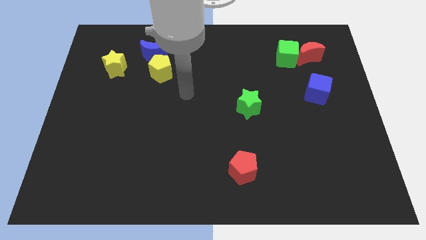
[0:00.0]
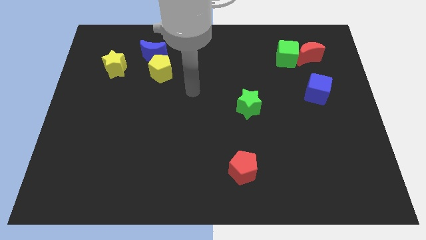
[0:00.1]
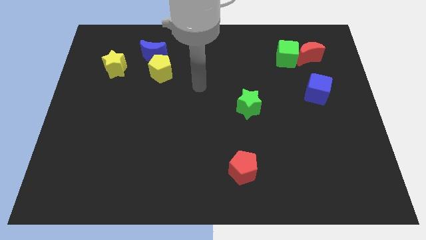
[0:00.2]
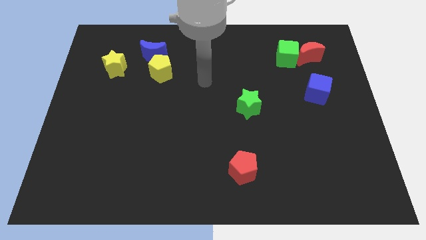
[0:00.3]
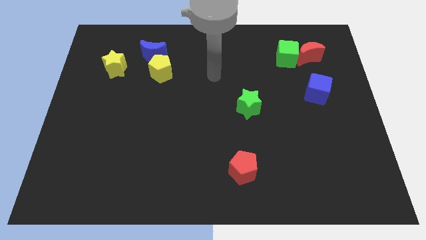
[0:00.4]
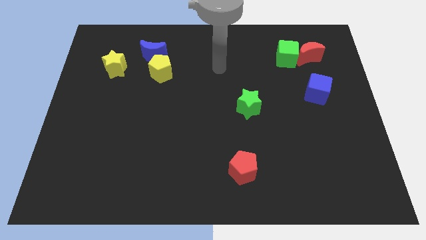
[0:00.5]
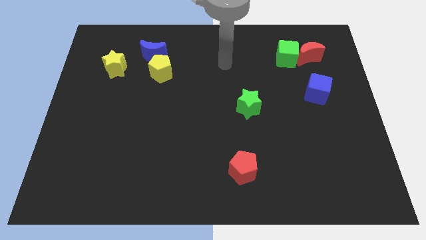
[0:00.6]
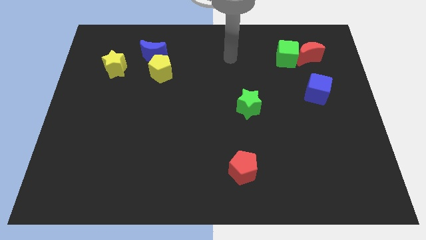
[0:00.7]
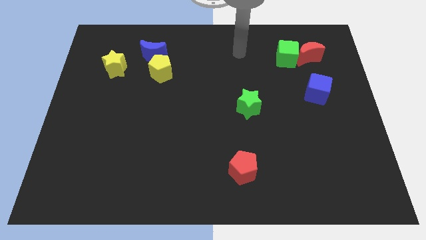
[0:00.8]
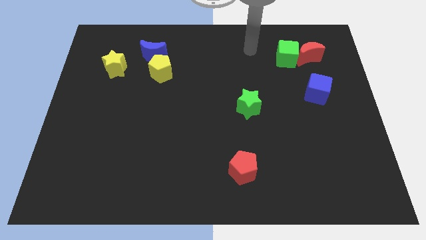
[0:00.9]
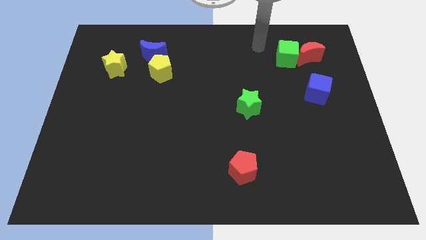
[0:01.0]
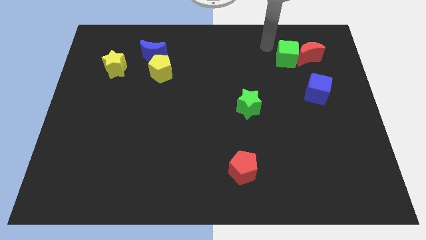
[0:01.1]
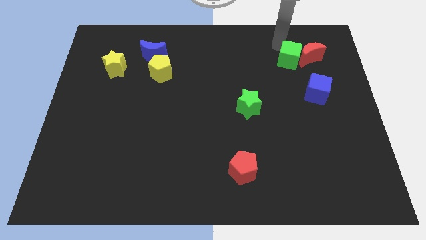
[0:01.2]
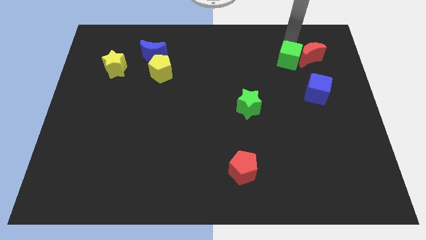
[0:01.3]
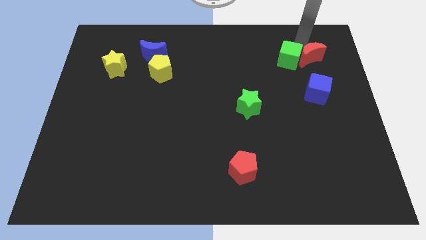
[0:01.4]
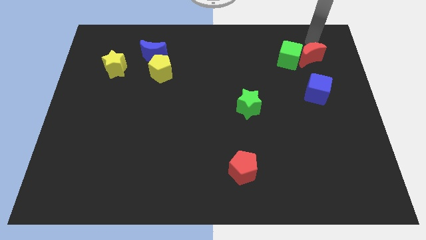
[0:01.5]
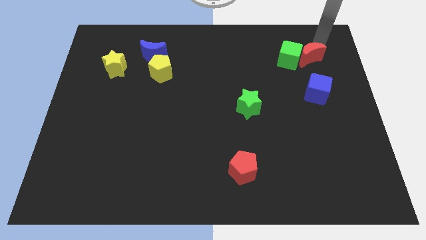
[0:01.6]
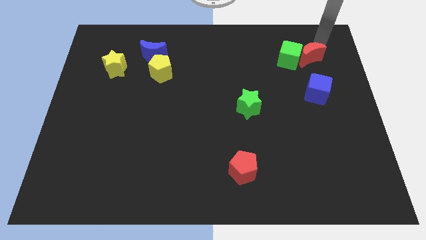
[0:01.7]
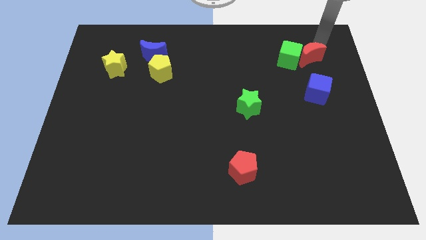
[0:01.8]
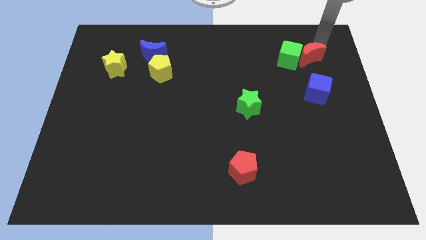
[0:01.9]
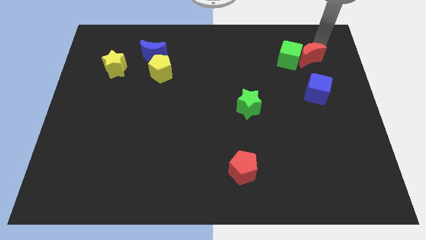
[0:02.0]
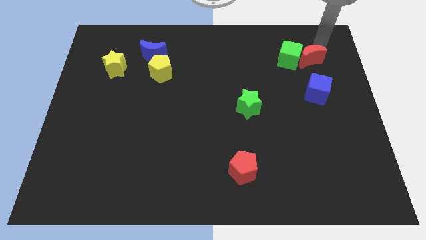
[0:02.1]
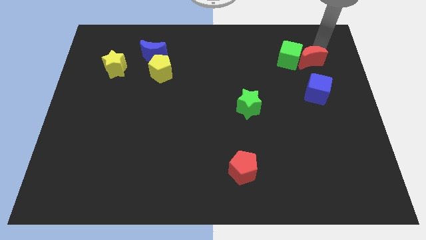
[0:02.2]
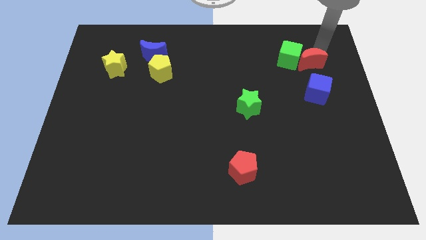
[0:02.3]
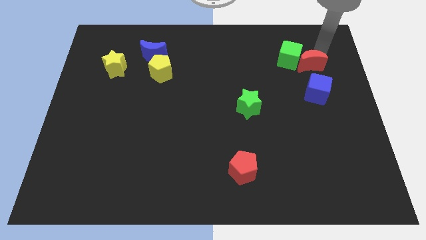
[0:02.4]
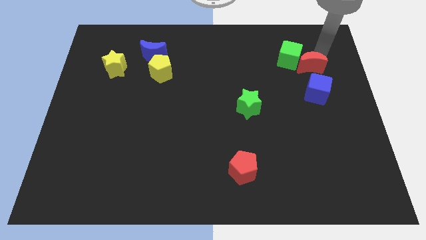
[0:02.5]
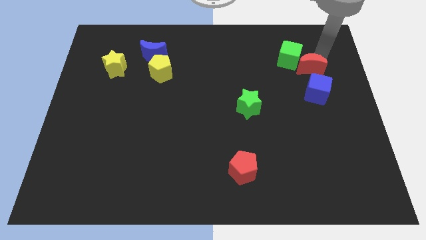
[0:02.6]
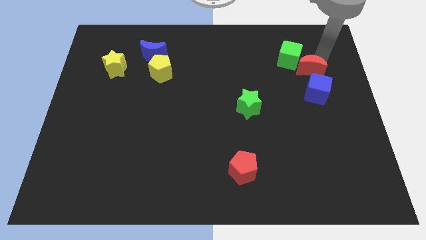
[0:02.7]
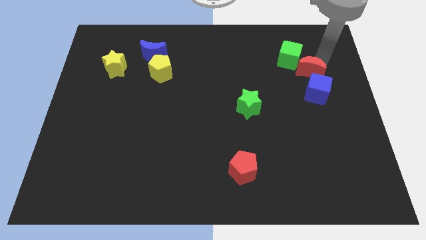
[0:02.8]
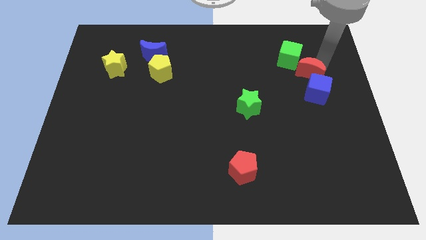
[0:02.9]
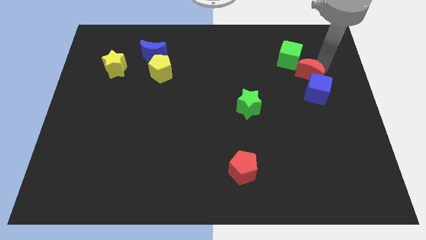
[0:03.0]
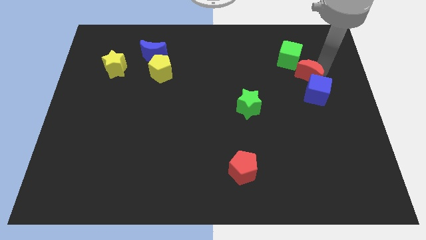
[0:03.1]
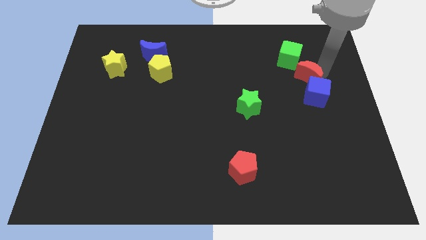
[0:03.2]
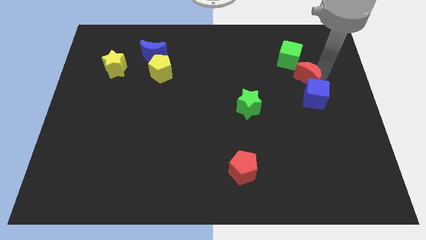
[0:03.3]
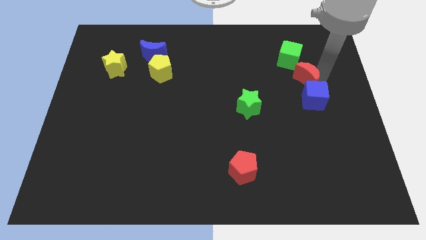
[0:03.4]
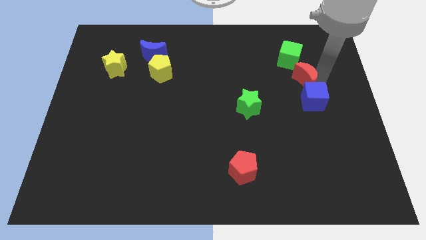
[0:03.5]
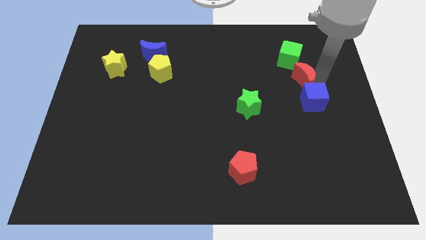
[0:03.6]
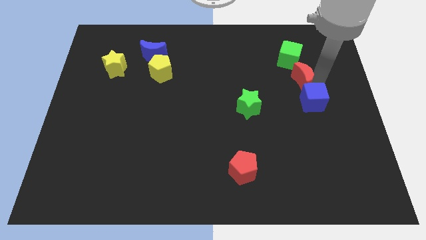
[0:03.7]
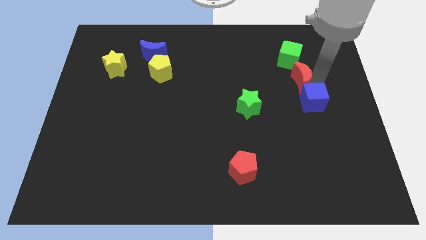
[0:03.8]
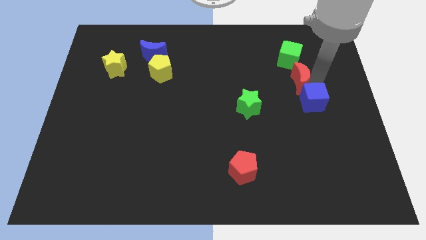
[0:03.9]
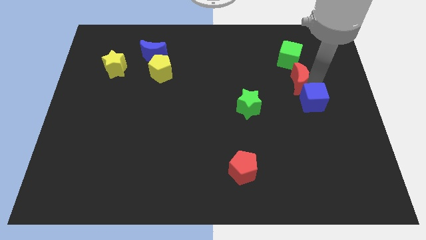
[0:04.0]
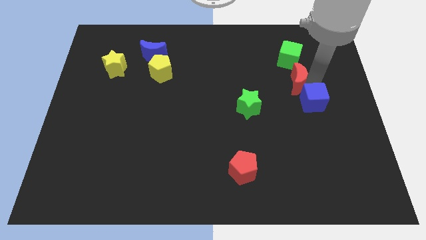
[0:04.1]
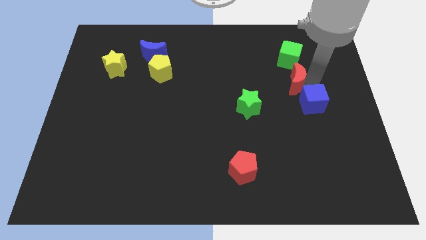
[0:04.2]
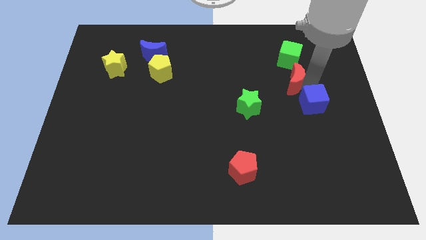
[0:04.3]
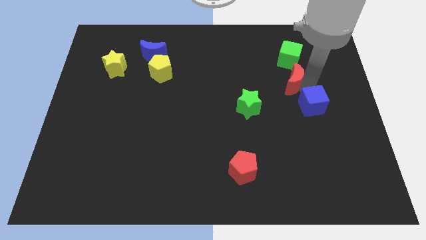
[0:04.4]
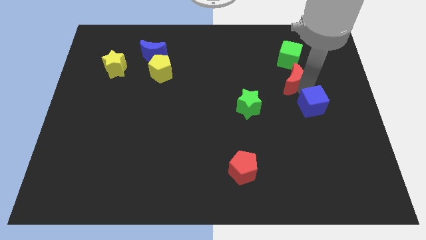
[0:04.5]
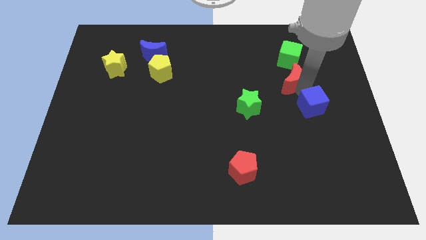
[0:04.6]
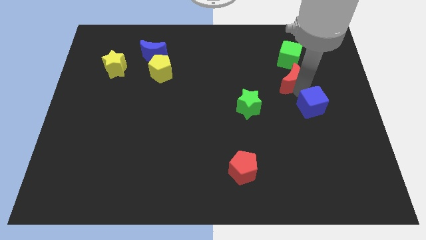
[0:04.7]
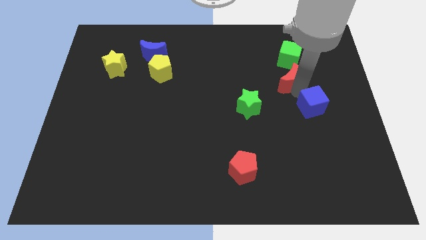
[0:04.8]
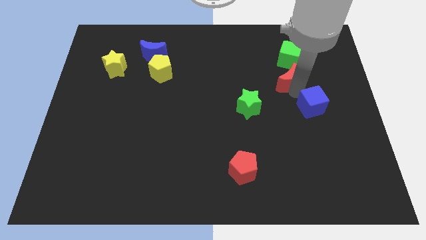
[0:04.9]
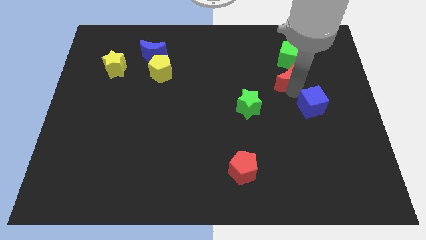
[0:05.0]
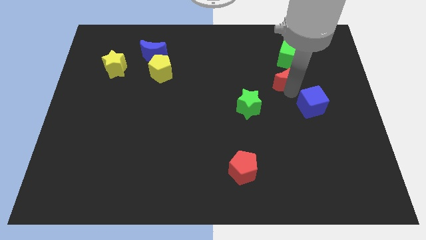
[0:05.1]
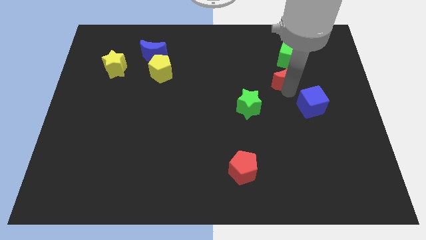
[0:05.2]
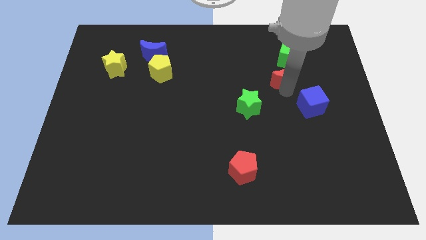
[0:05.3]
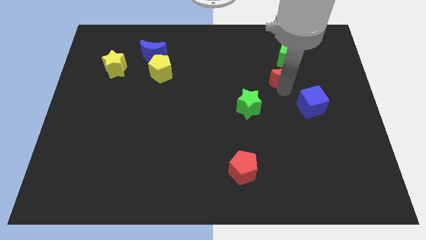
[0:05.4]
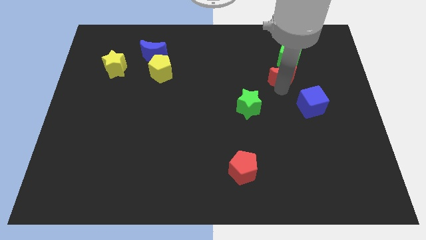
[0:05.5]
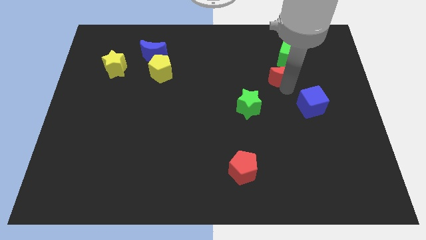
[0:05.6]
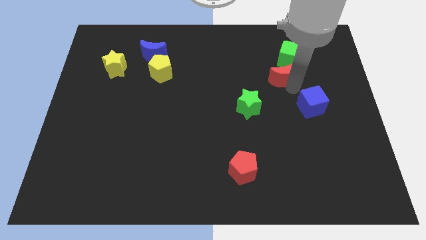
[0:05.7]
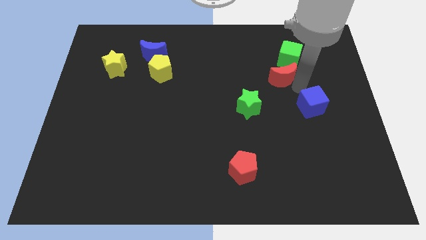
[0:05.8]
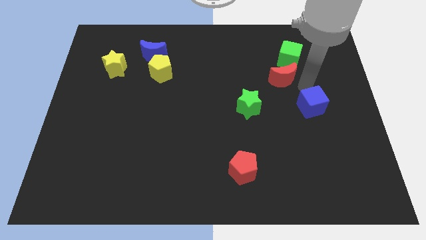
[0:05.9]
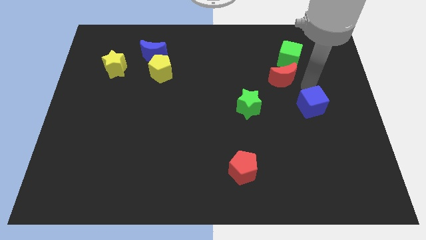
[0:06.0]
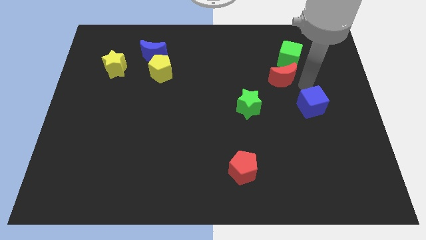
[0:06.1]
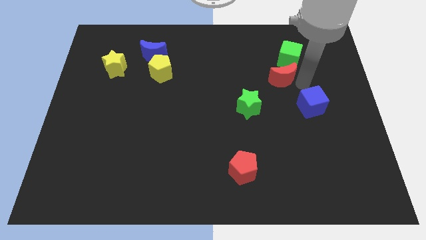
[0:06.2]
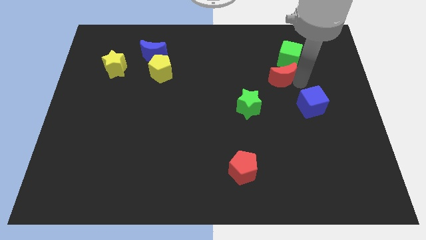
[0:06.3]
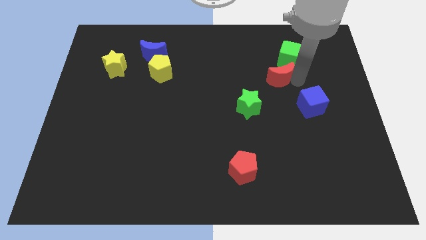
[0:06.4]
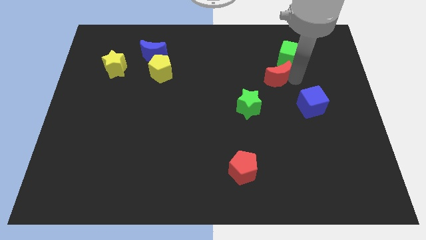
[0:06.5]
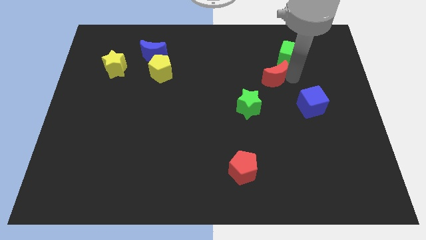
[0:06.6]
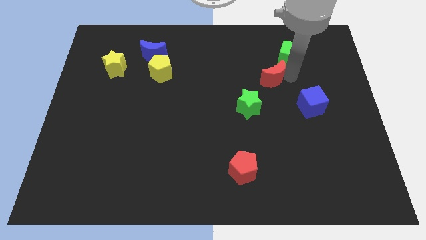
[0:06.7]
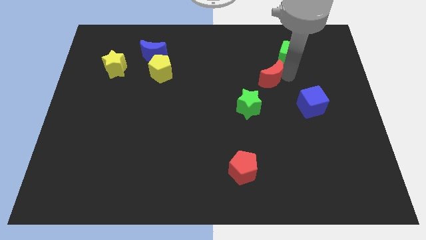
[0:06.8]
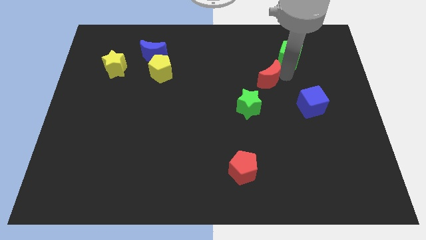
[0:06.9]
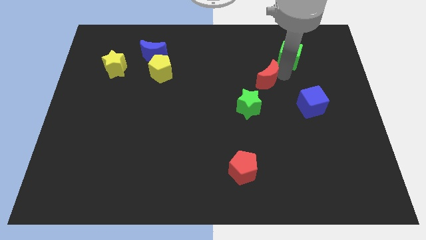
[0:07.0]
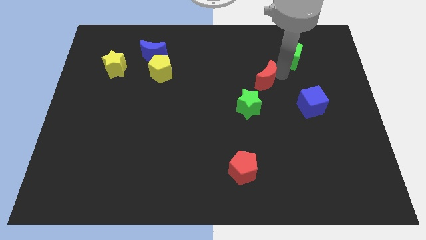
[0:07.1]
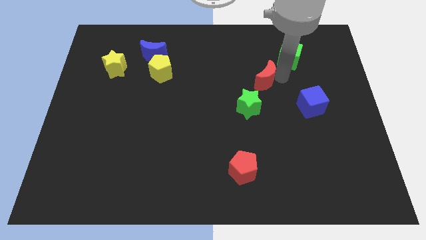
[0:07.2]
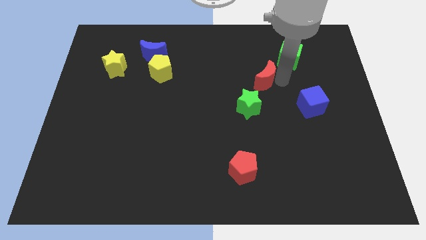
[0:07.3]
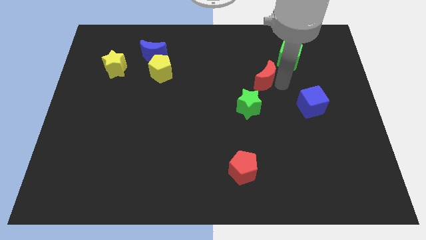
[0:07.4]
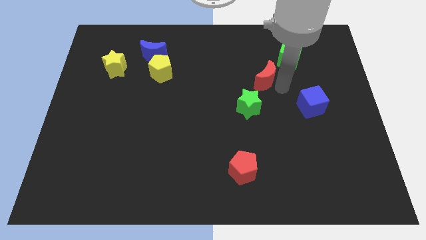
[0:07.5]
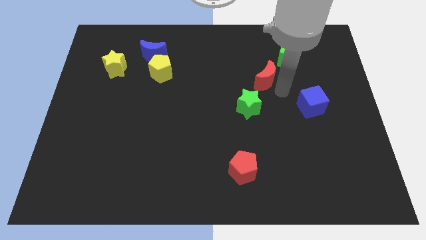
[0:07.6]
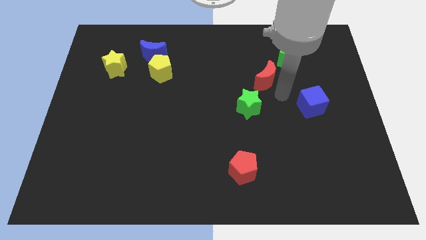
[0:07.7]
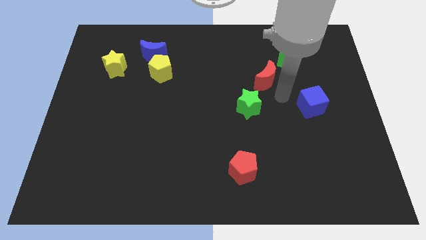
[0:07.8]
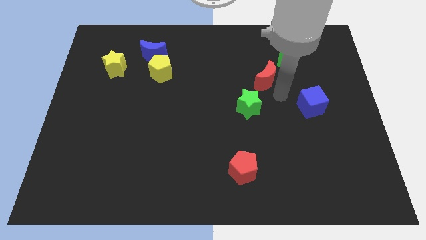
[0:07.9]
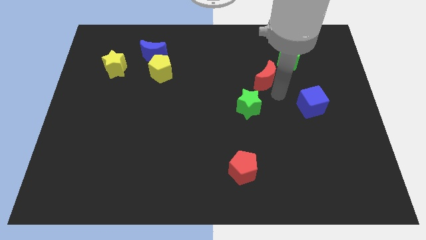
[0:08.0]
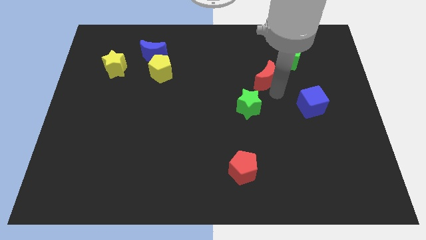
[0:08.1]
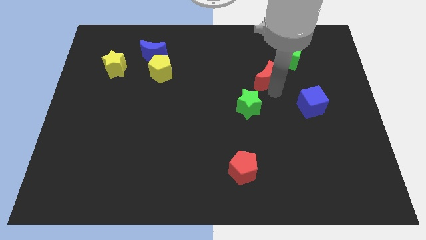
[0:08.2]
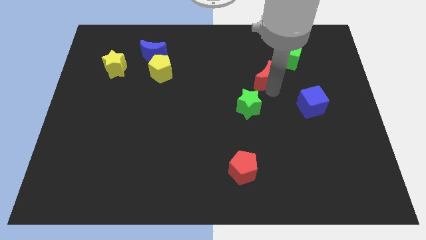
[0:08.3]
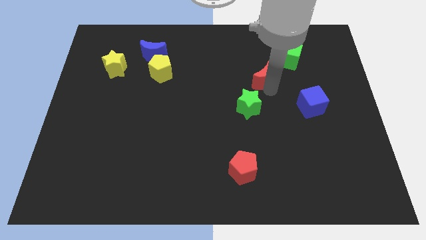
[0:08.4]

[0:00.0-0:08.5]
move the red moon to the top side of the green star
